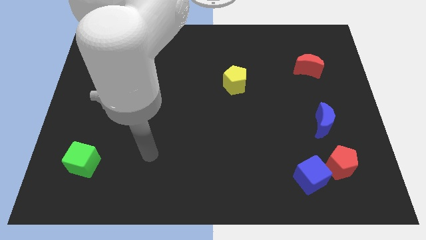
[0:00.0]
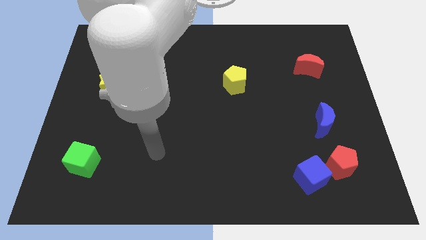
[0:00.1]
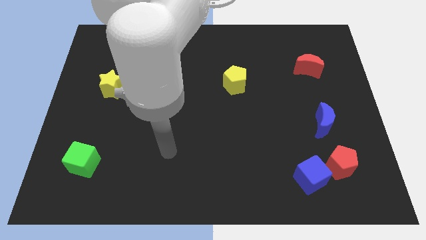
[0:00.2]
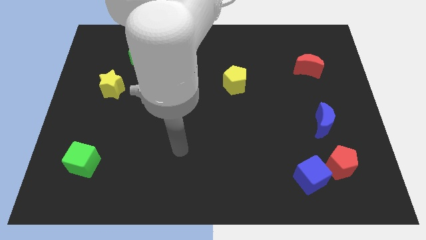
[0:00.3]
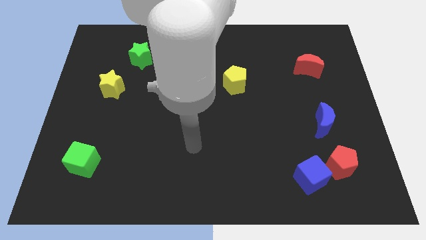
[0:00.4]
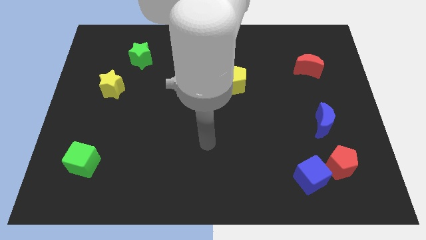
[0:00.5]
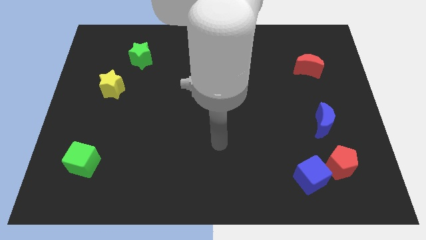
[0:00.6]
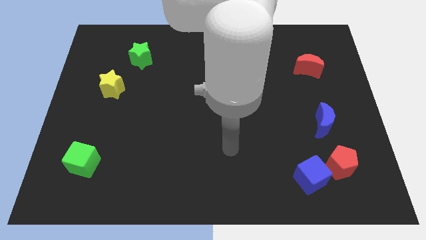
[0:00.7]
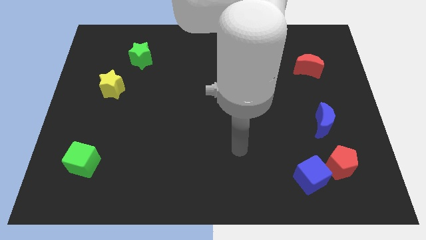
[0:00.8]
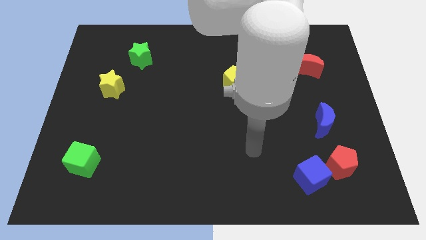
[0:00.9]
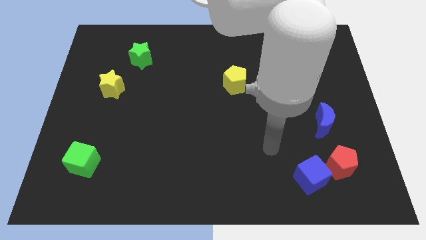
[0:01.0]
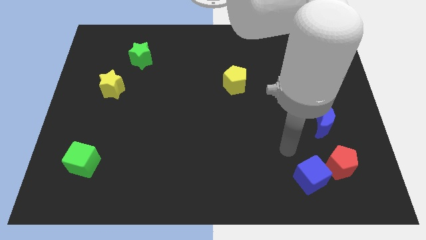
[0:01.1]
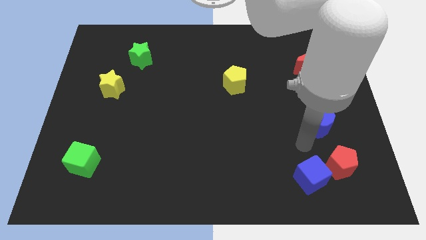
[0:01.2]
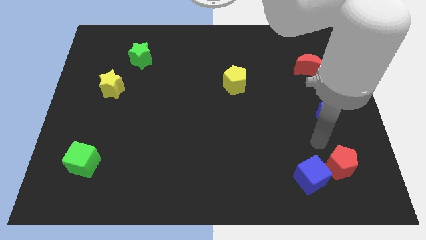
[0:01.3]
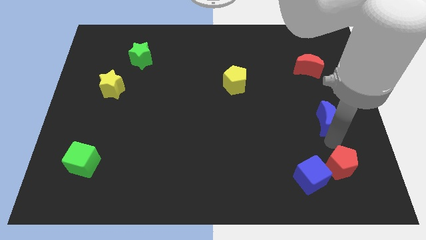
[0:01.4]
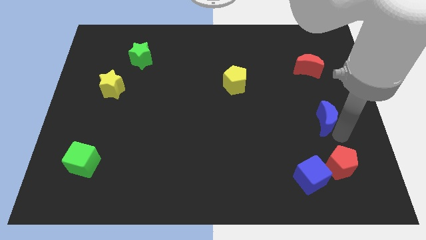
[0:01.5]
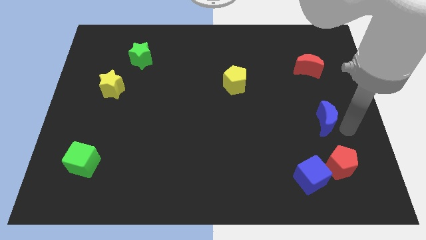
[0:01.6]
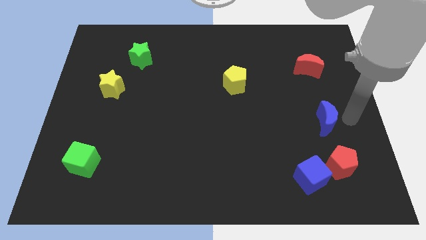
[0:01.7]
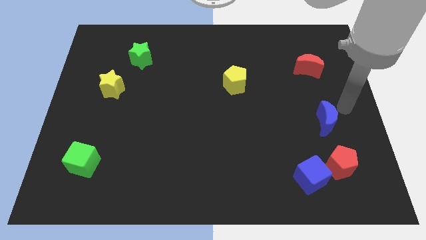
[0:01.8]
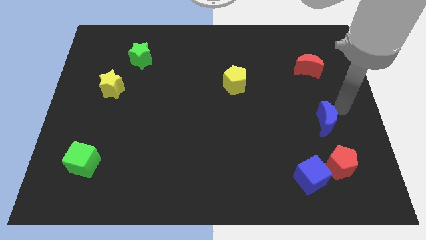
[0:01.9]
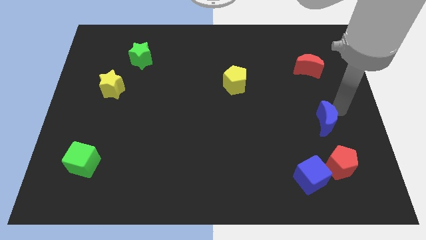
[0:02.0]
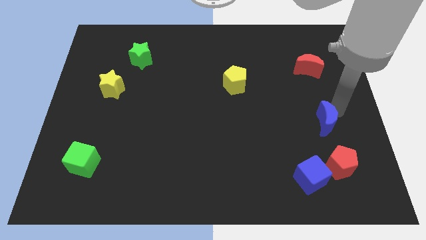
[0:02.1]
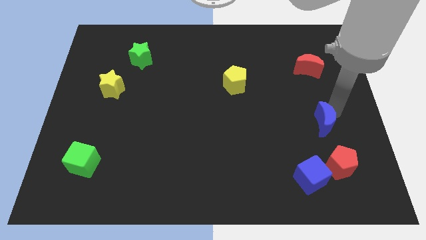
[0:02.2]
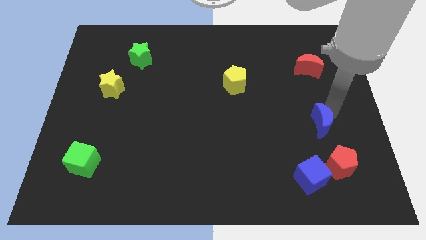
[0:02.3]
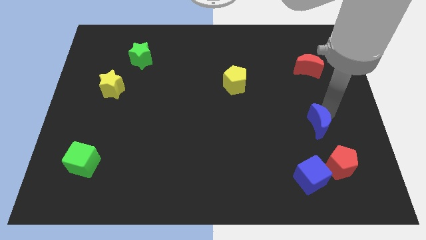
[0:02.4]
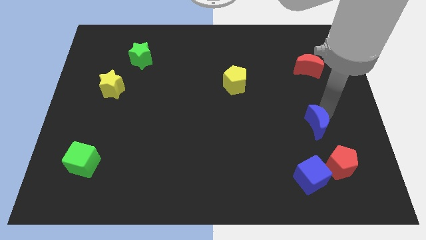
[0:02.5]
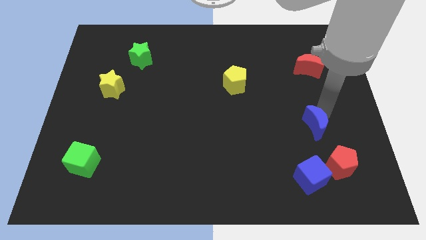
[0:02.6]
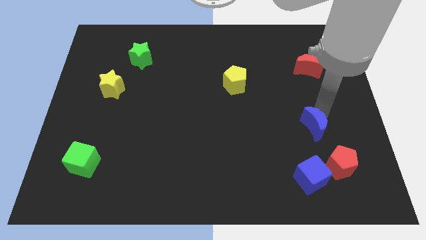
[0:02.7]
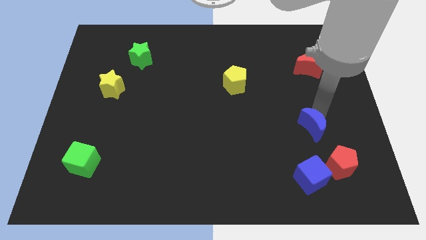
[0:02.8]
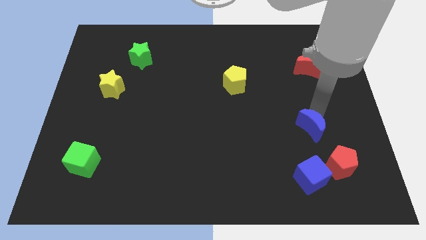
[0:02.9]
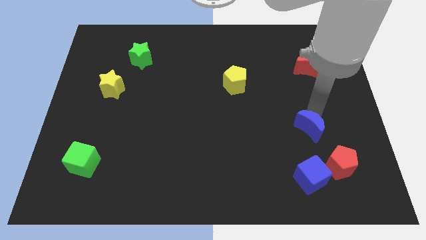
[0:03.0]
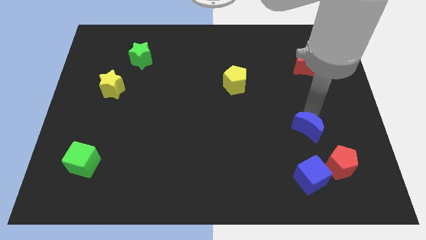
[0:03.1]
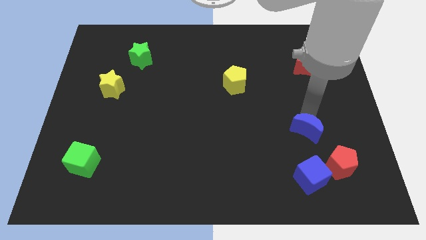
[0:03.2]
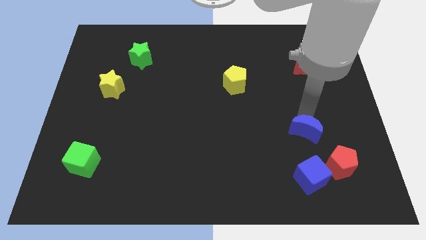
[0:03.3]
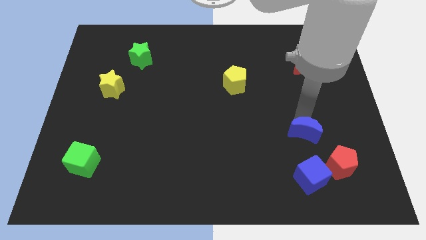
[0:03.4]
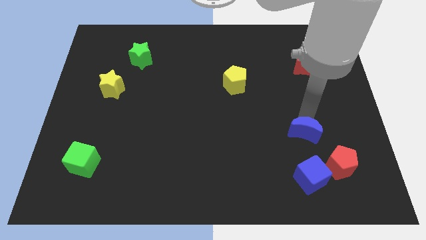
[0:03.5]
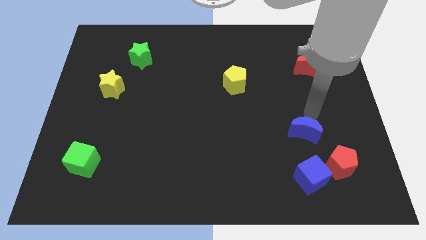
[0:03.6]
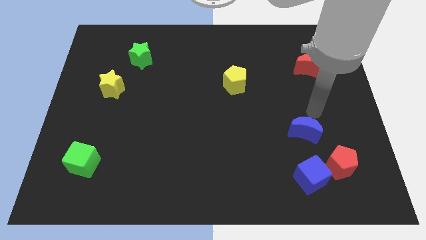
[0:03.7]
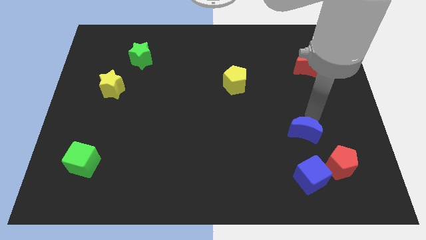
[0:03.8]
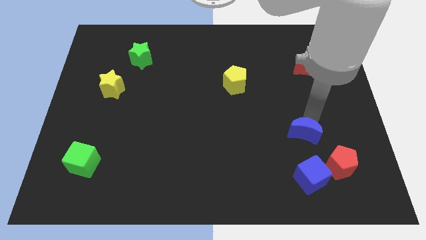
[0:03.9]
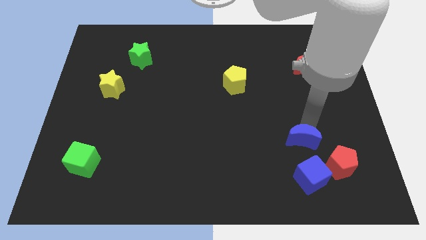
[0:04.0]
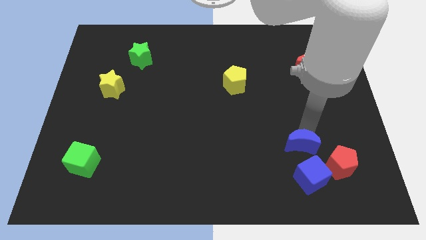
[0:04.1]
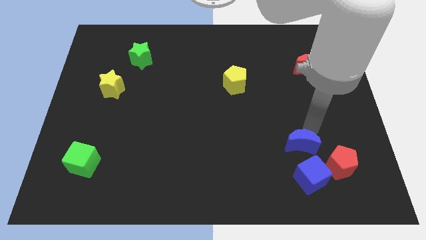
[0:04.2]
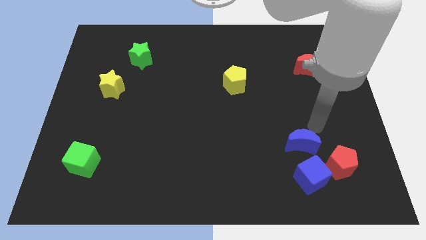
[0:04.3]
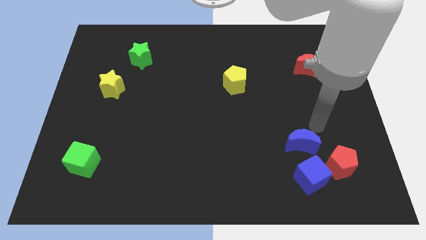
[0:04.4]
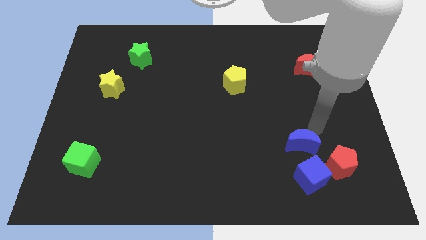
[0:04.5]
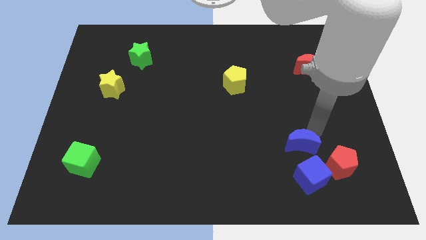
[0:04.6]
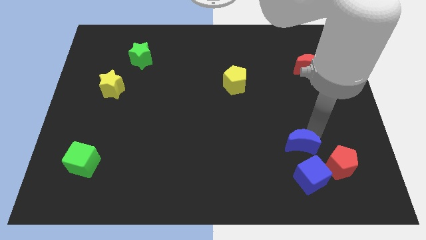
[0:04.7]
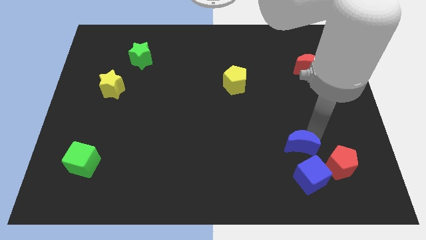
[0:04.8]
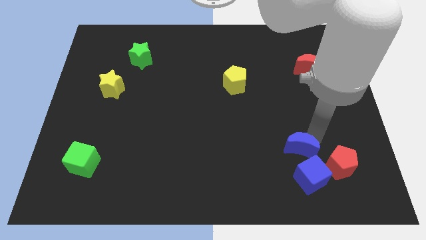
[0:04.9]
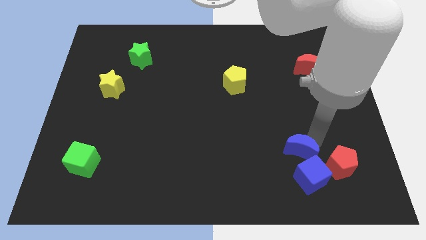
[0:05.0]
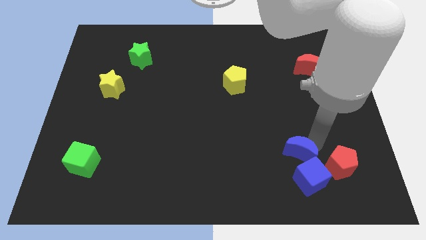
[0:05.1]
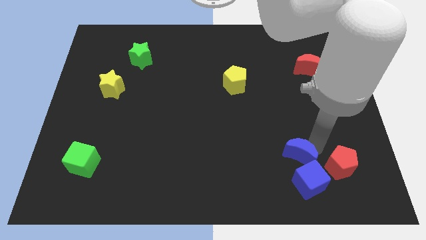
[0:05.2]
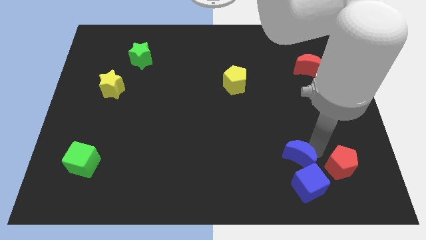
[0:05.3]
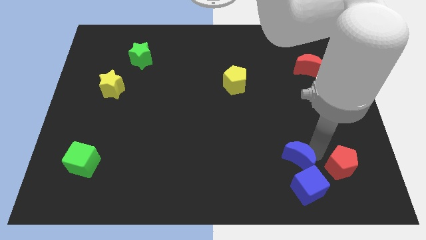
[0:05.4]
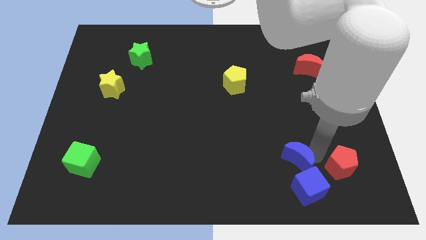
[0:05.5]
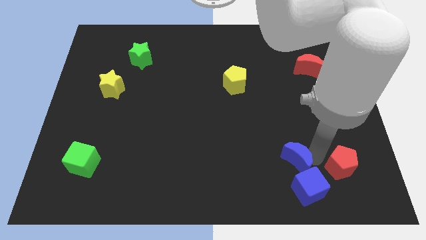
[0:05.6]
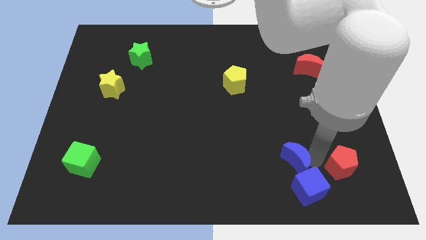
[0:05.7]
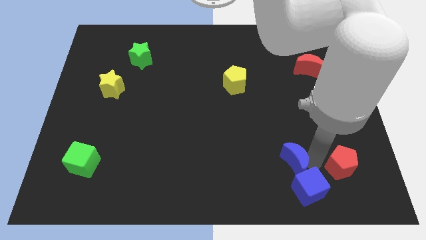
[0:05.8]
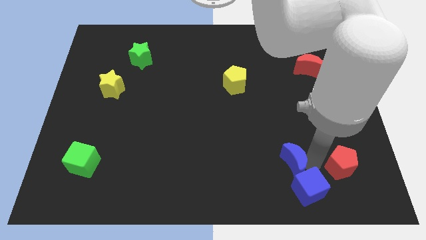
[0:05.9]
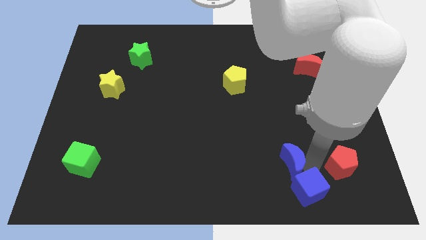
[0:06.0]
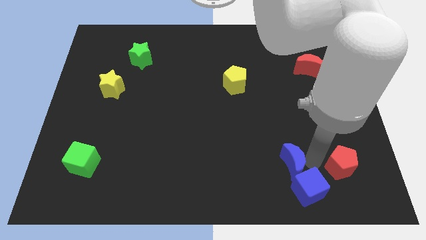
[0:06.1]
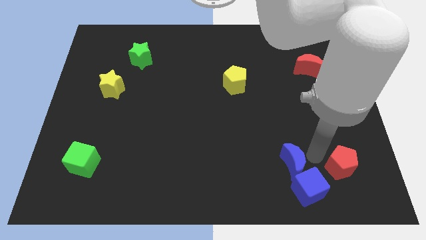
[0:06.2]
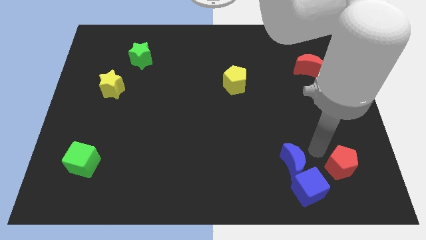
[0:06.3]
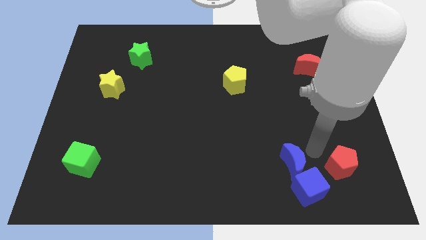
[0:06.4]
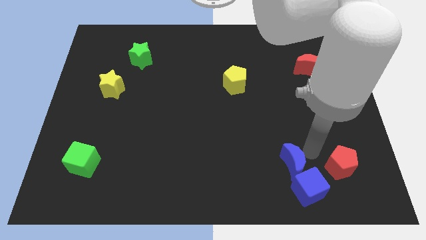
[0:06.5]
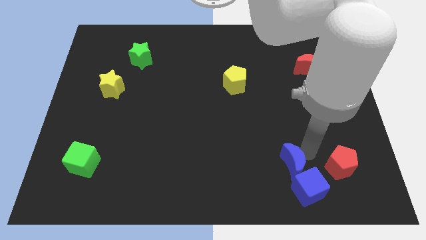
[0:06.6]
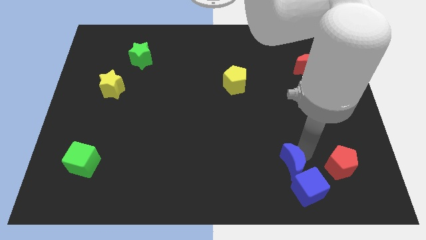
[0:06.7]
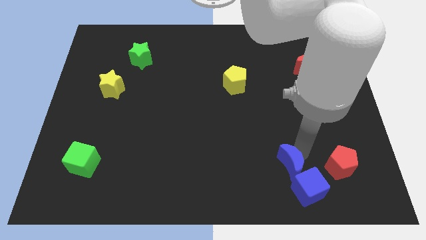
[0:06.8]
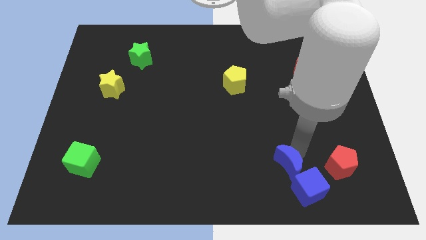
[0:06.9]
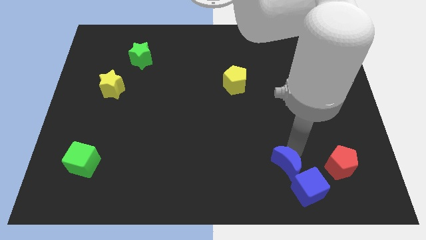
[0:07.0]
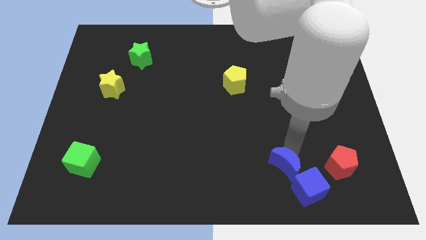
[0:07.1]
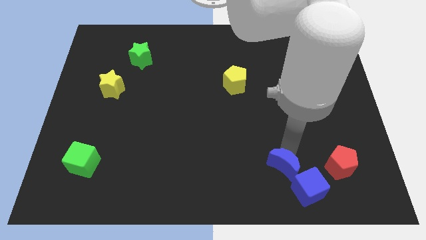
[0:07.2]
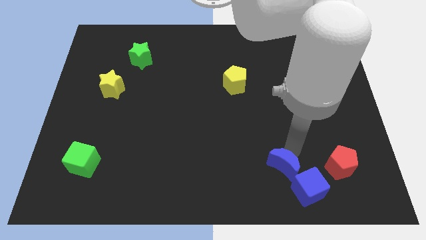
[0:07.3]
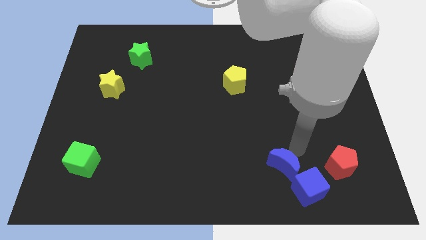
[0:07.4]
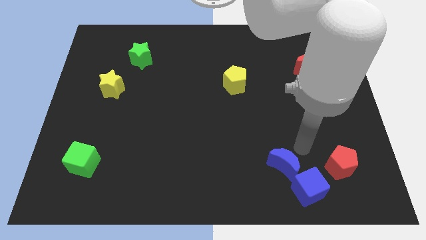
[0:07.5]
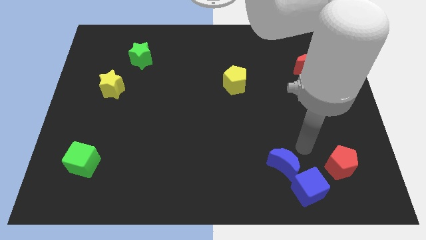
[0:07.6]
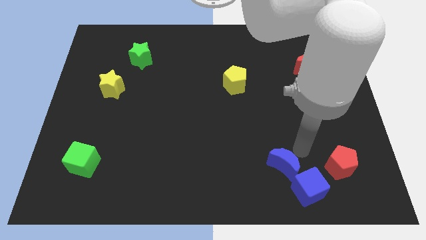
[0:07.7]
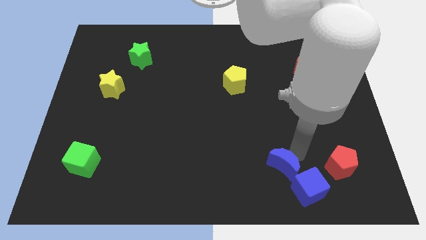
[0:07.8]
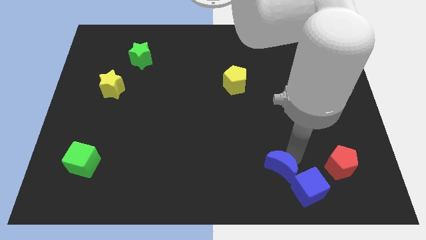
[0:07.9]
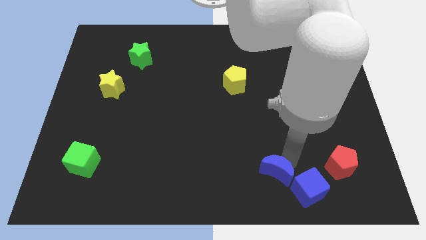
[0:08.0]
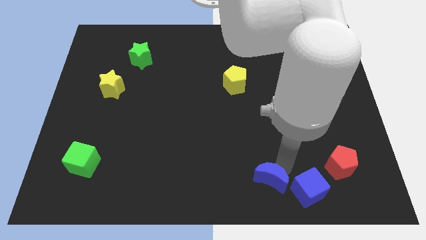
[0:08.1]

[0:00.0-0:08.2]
move the blue moon to the bottom side
